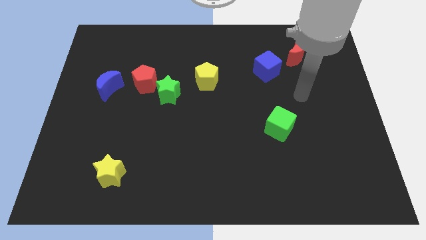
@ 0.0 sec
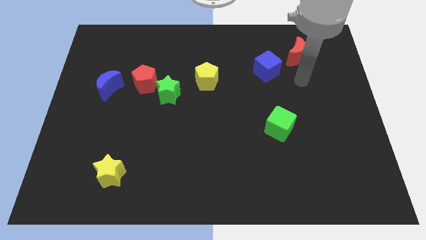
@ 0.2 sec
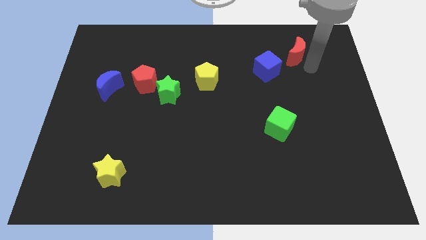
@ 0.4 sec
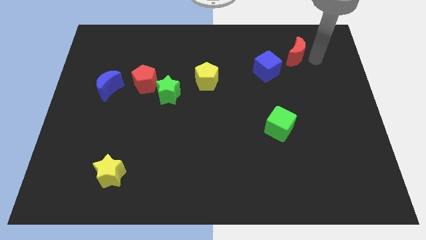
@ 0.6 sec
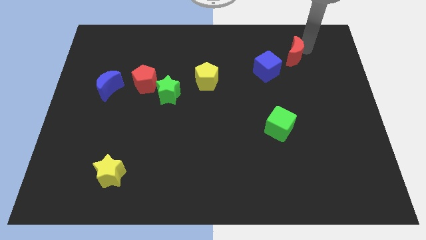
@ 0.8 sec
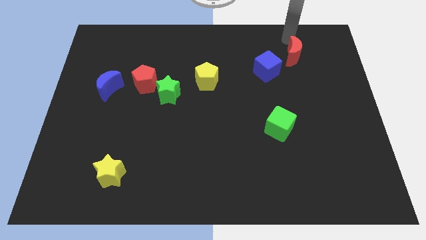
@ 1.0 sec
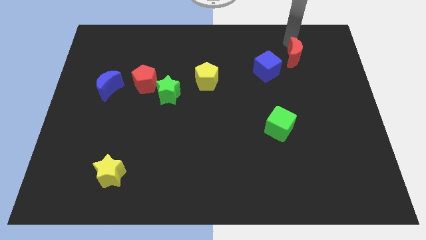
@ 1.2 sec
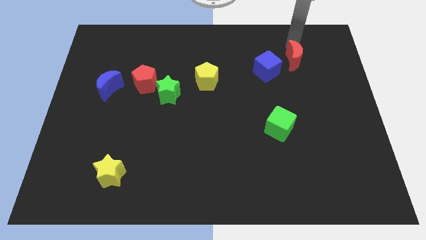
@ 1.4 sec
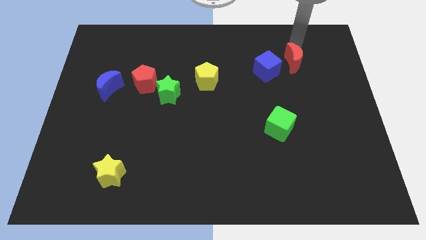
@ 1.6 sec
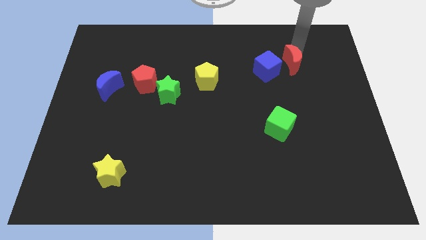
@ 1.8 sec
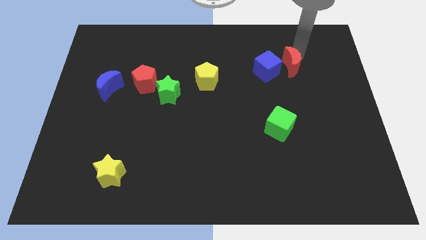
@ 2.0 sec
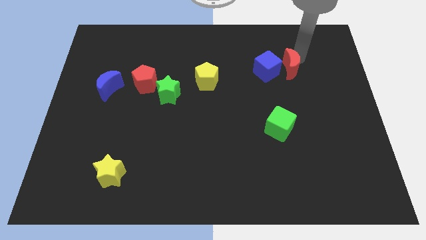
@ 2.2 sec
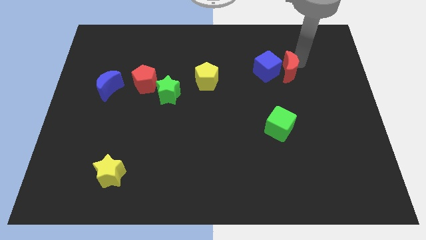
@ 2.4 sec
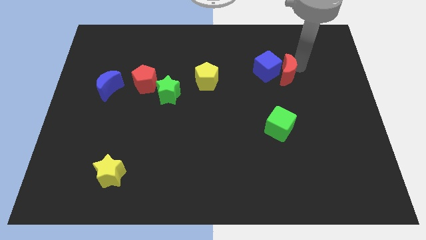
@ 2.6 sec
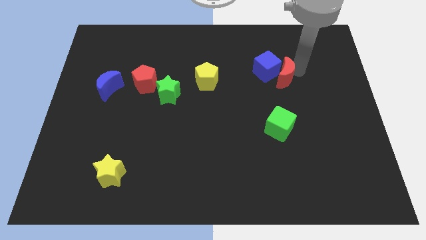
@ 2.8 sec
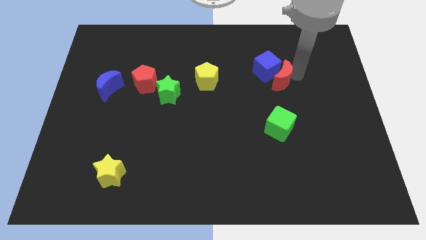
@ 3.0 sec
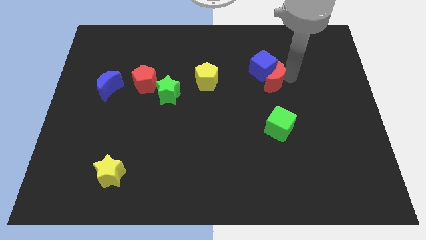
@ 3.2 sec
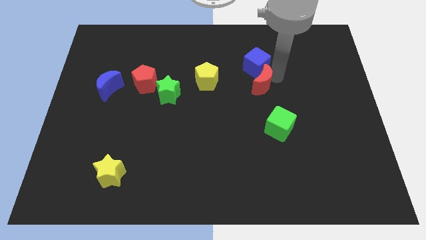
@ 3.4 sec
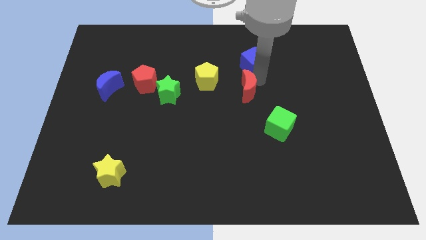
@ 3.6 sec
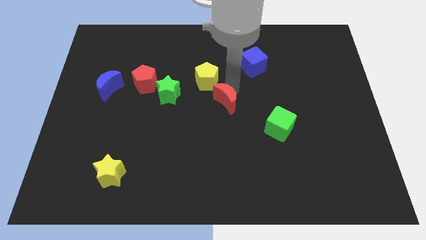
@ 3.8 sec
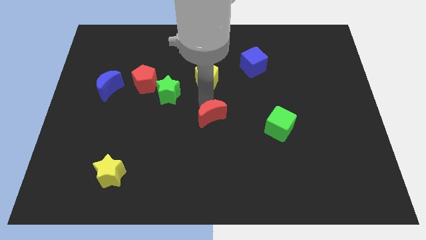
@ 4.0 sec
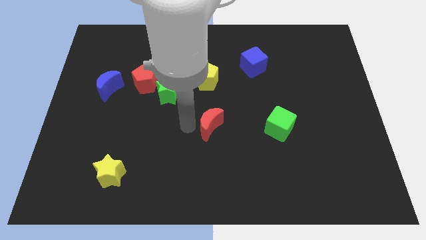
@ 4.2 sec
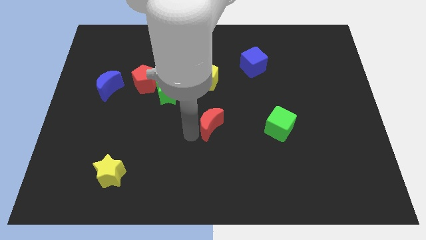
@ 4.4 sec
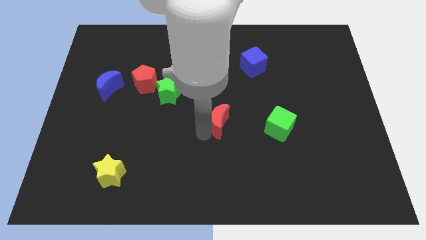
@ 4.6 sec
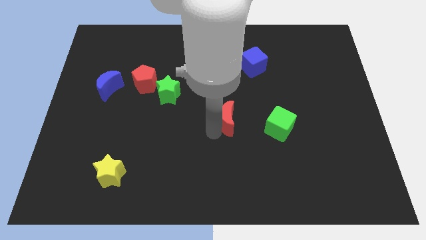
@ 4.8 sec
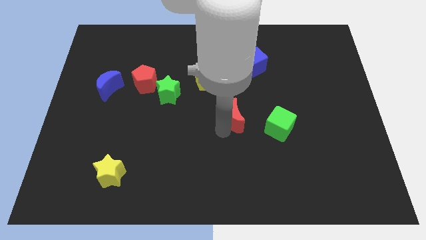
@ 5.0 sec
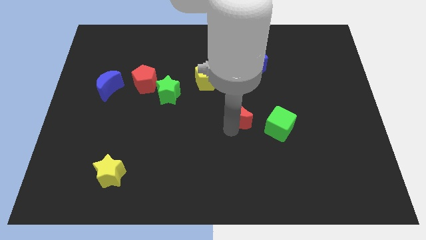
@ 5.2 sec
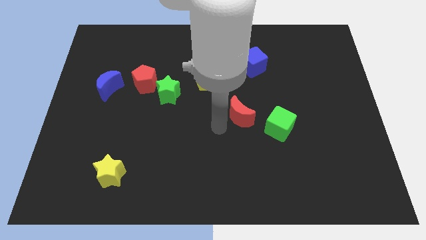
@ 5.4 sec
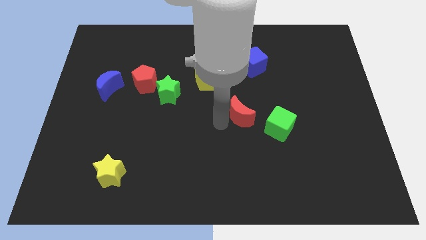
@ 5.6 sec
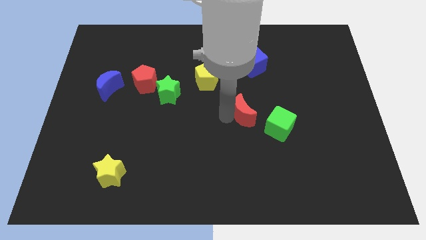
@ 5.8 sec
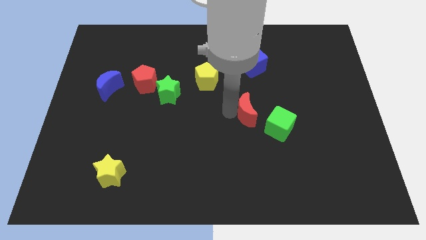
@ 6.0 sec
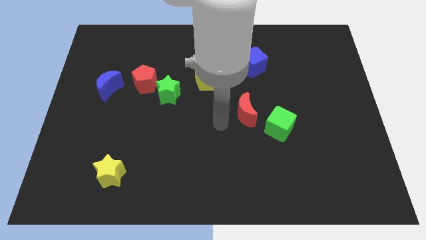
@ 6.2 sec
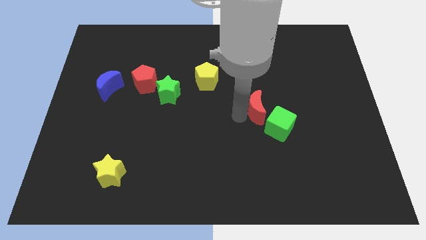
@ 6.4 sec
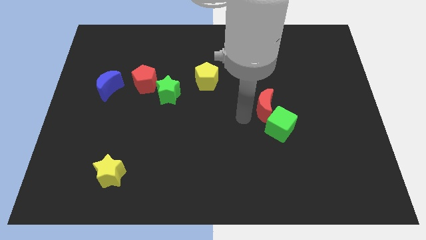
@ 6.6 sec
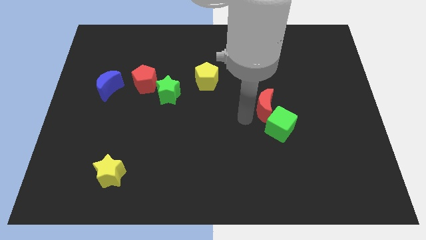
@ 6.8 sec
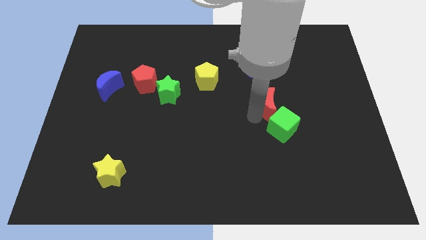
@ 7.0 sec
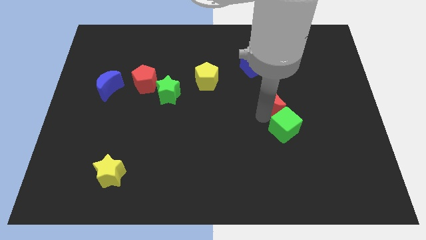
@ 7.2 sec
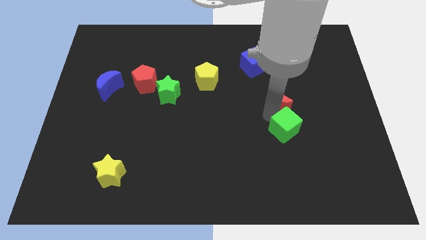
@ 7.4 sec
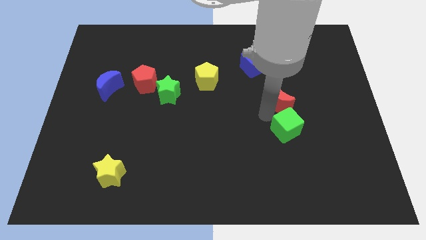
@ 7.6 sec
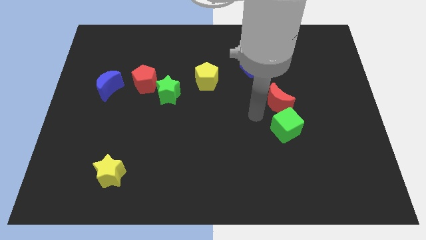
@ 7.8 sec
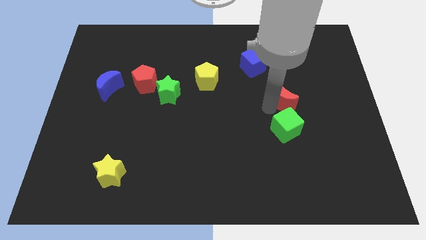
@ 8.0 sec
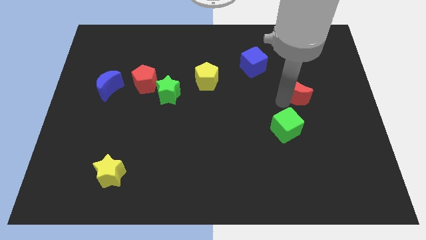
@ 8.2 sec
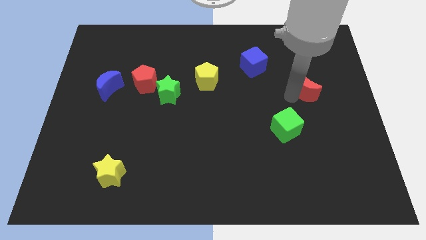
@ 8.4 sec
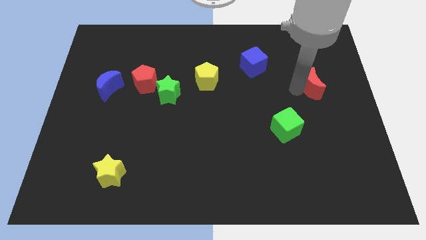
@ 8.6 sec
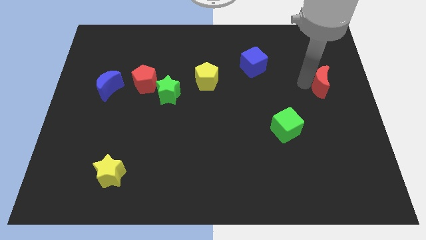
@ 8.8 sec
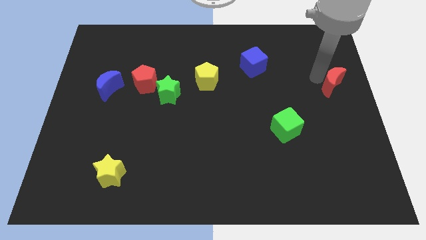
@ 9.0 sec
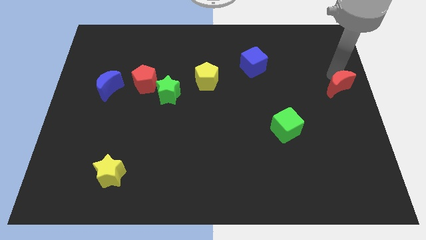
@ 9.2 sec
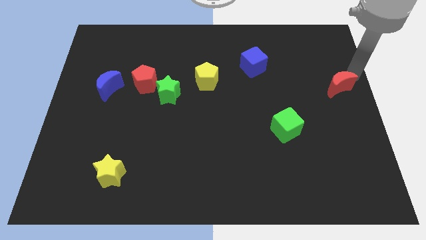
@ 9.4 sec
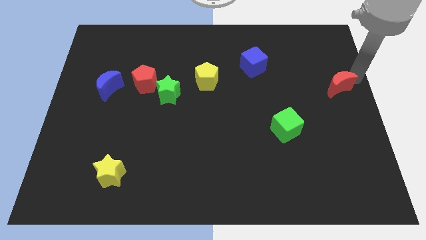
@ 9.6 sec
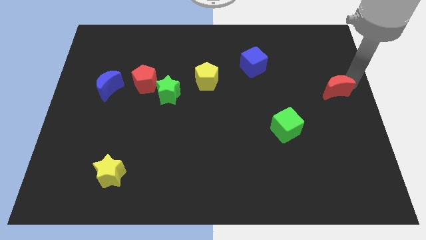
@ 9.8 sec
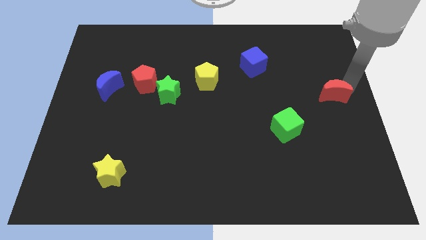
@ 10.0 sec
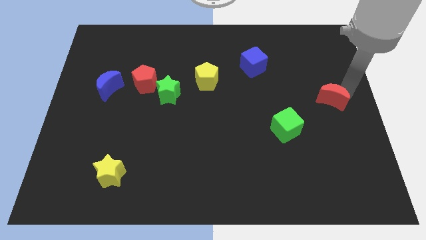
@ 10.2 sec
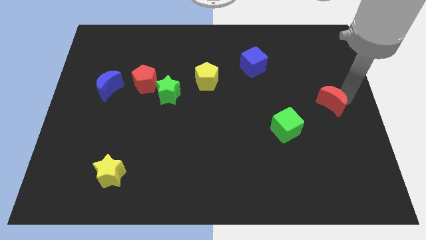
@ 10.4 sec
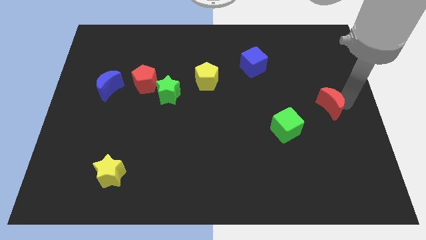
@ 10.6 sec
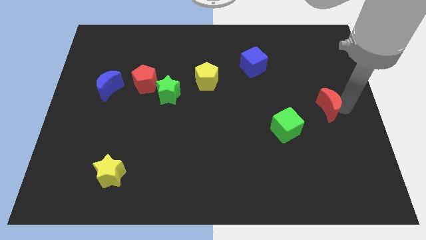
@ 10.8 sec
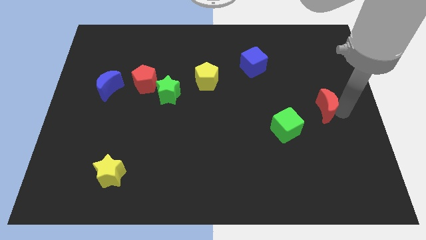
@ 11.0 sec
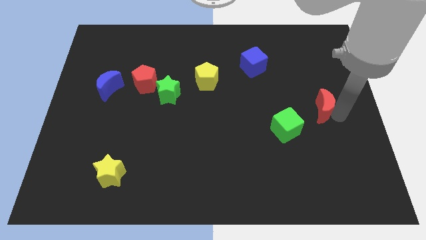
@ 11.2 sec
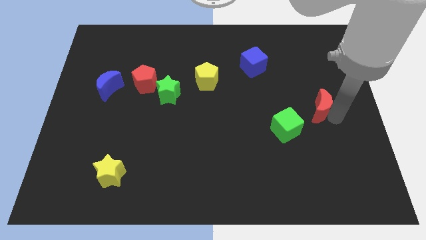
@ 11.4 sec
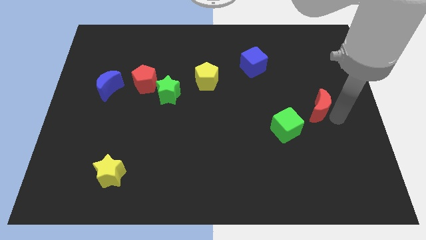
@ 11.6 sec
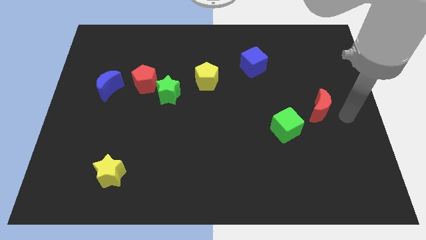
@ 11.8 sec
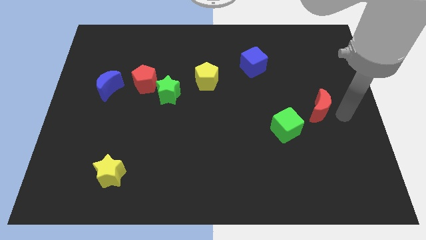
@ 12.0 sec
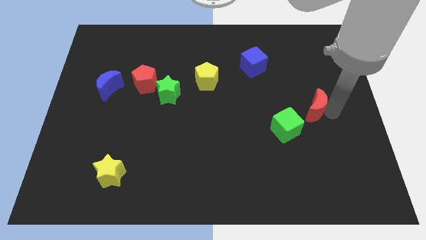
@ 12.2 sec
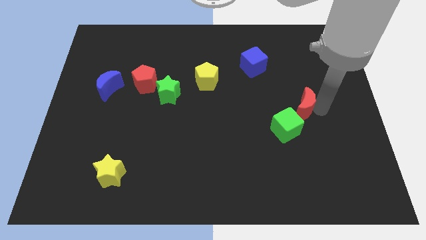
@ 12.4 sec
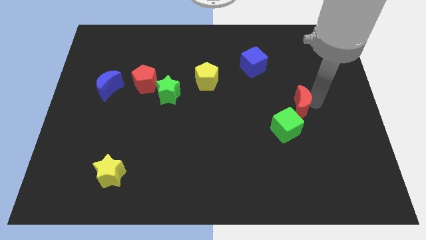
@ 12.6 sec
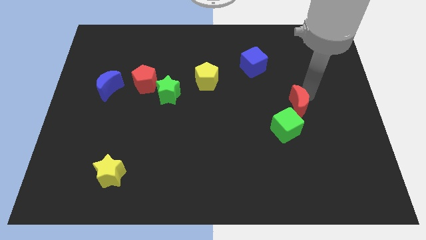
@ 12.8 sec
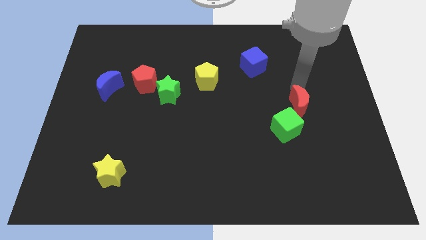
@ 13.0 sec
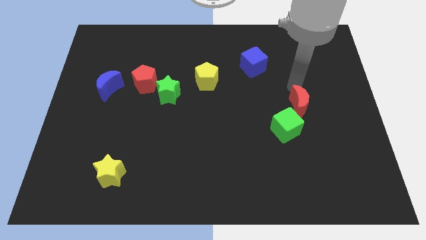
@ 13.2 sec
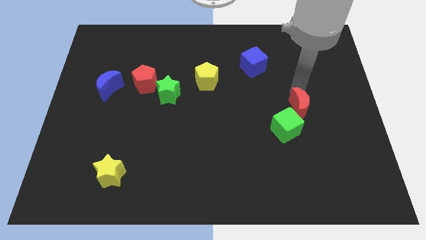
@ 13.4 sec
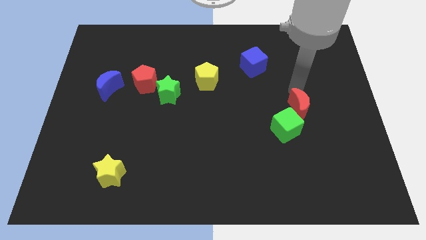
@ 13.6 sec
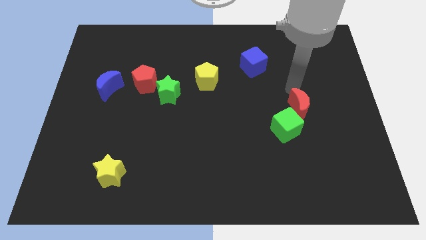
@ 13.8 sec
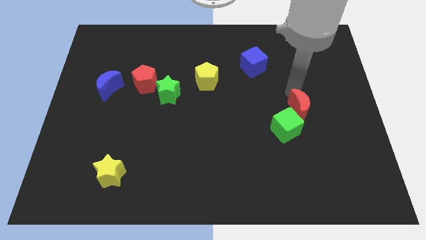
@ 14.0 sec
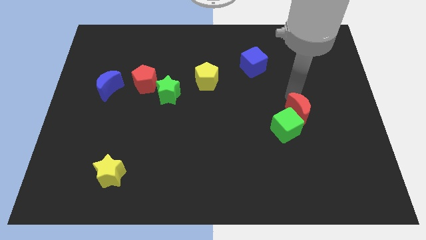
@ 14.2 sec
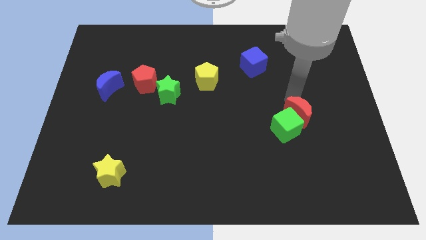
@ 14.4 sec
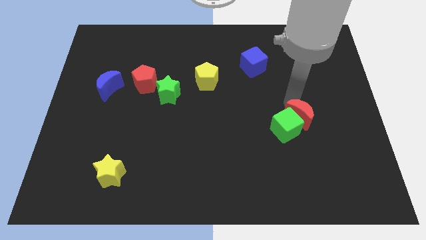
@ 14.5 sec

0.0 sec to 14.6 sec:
push the red moon downwards

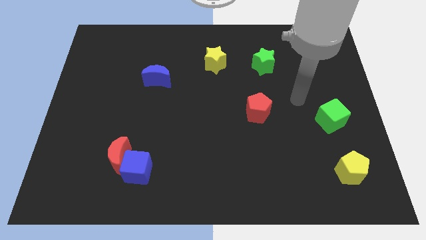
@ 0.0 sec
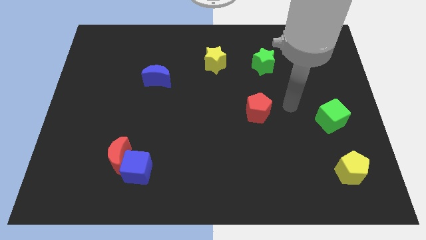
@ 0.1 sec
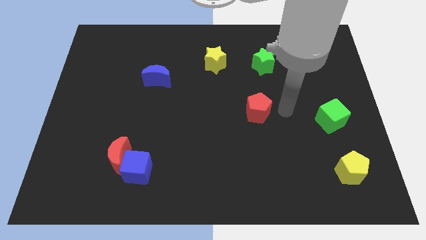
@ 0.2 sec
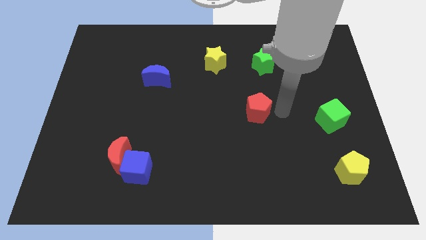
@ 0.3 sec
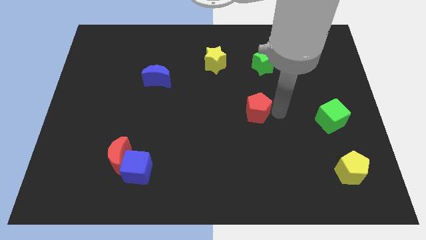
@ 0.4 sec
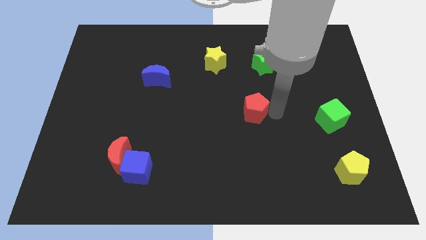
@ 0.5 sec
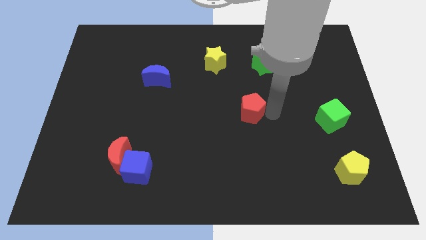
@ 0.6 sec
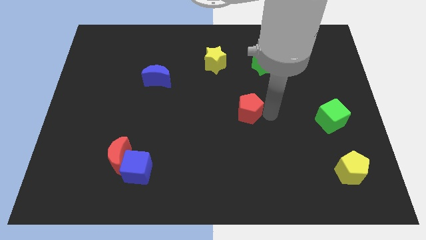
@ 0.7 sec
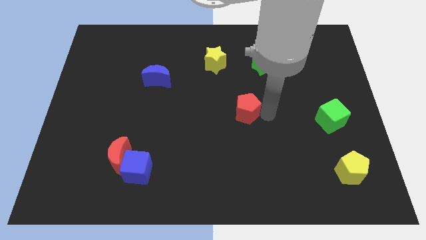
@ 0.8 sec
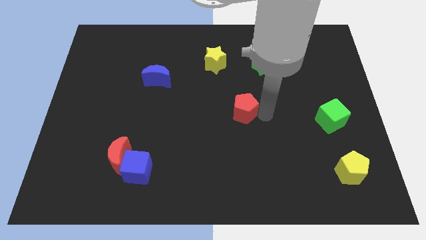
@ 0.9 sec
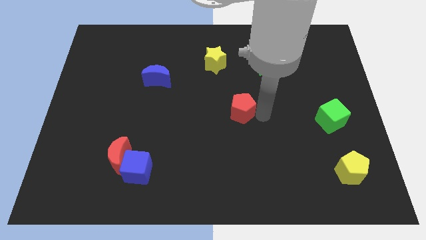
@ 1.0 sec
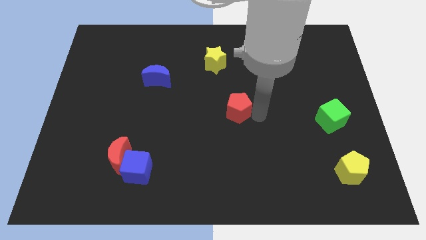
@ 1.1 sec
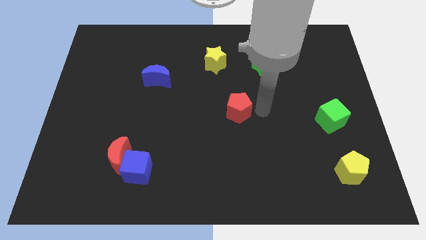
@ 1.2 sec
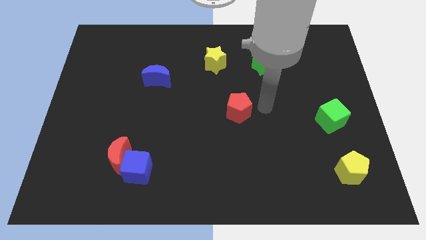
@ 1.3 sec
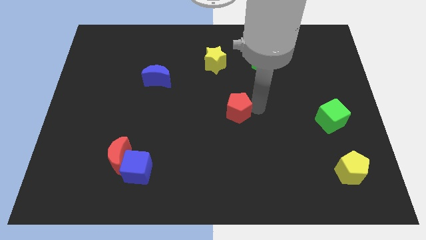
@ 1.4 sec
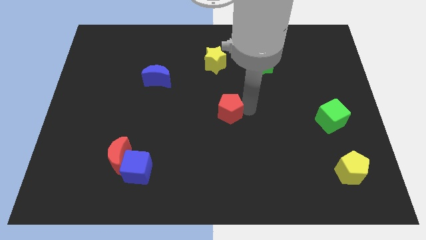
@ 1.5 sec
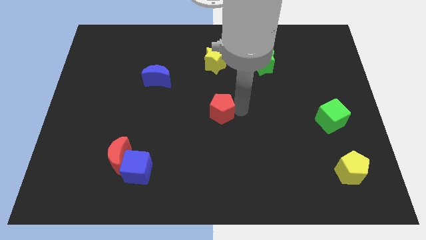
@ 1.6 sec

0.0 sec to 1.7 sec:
slightly push the red pentagon left
